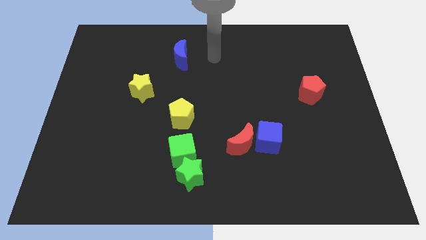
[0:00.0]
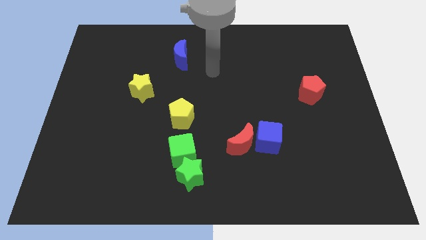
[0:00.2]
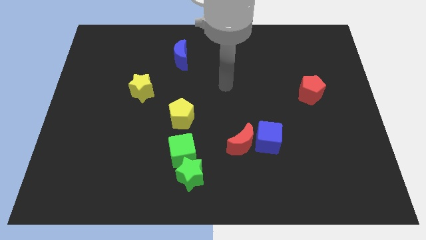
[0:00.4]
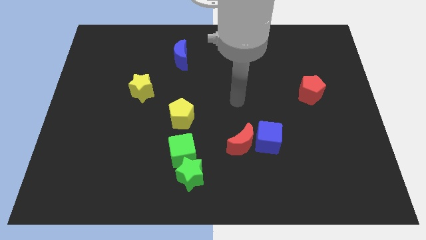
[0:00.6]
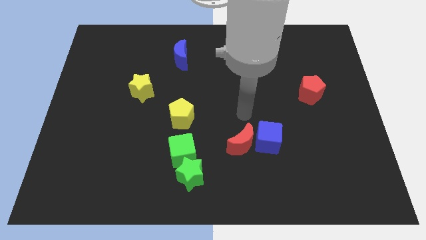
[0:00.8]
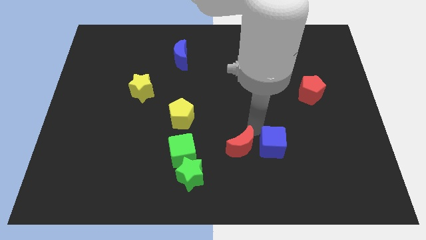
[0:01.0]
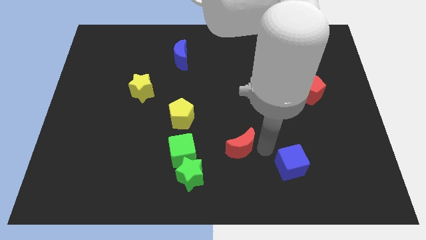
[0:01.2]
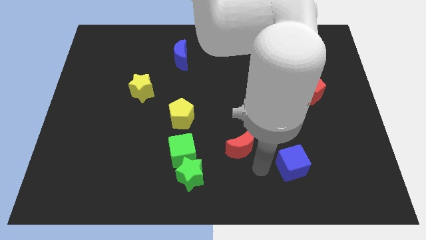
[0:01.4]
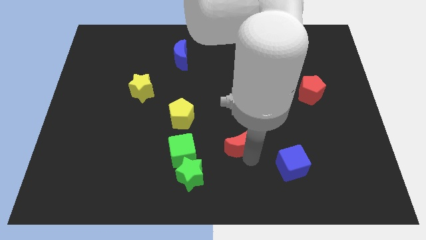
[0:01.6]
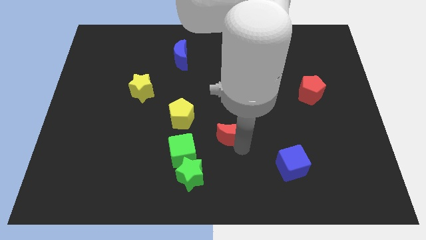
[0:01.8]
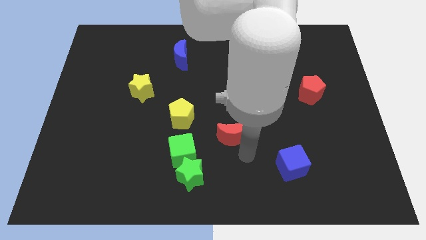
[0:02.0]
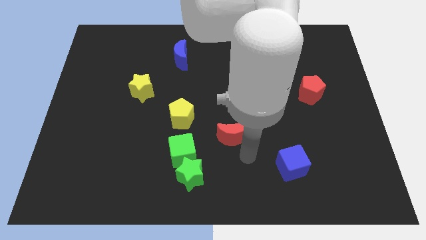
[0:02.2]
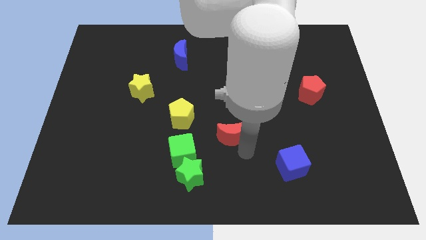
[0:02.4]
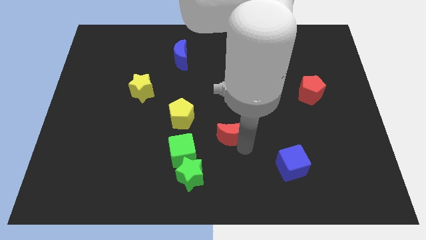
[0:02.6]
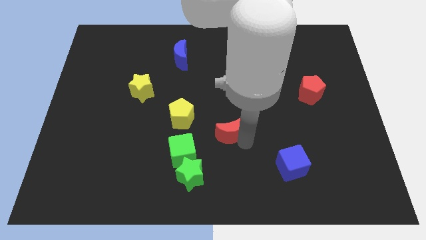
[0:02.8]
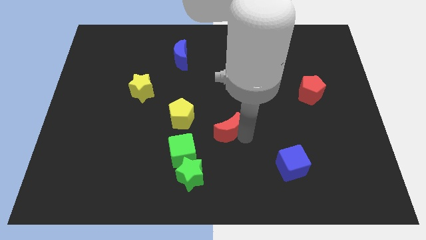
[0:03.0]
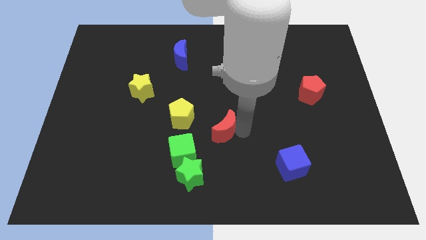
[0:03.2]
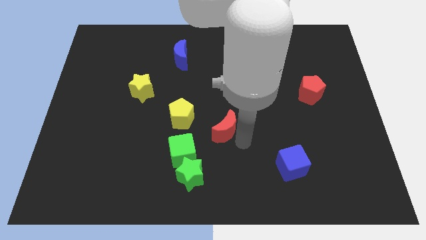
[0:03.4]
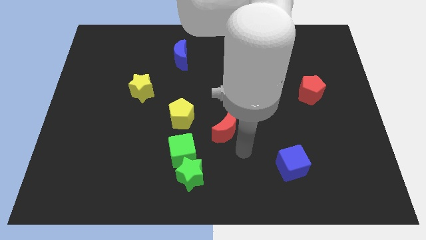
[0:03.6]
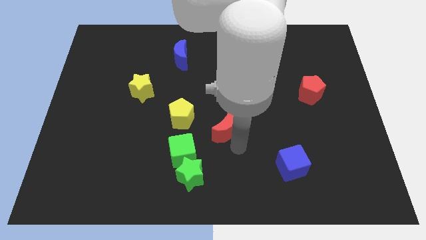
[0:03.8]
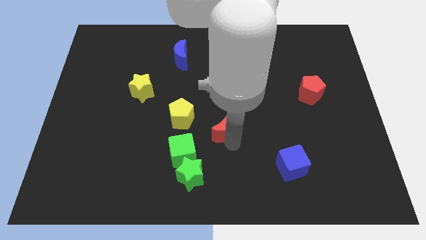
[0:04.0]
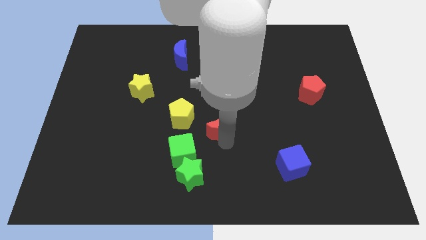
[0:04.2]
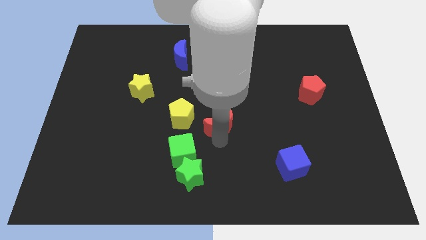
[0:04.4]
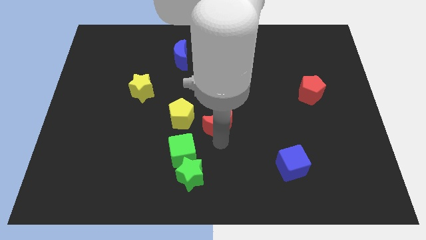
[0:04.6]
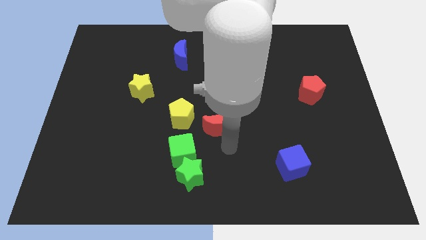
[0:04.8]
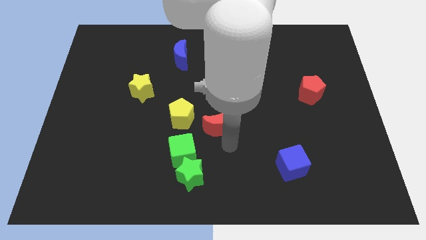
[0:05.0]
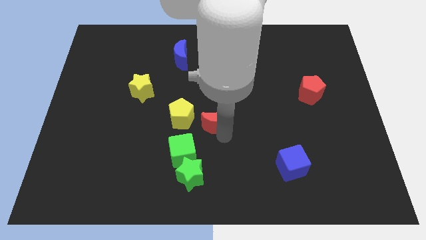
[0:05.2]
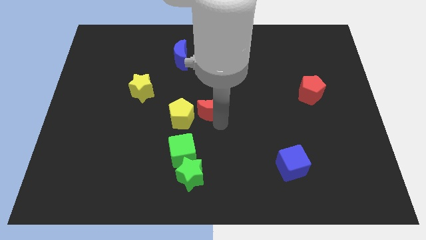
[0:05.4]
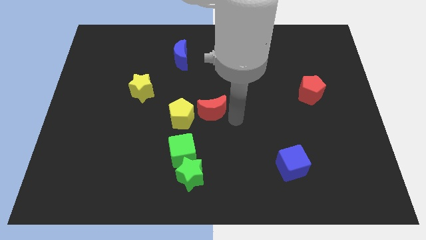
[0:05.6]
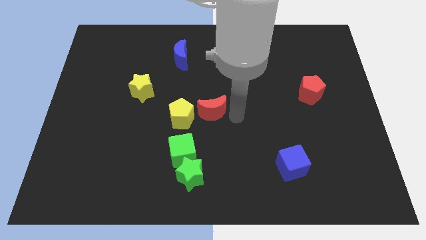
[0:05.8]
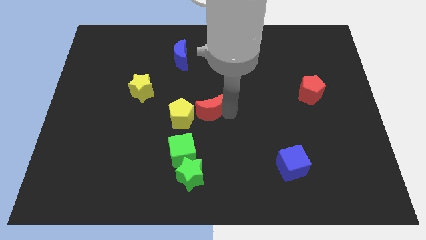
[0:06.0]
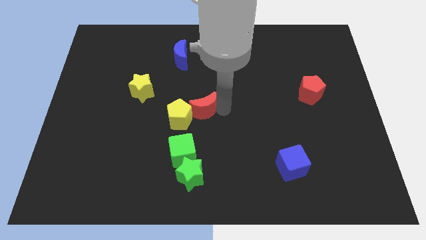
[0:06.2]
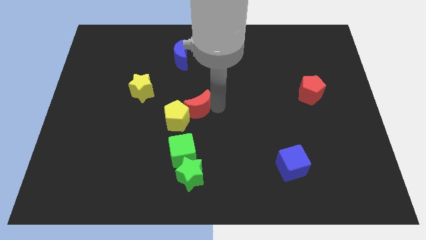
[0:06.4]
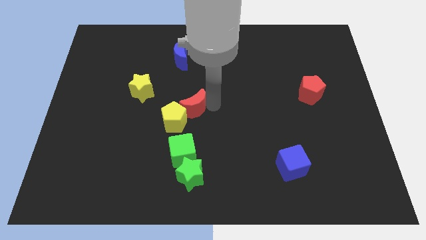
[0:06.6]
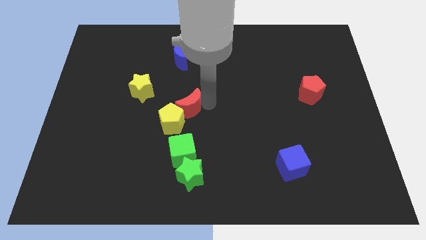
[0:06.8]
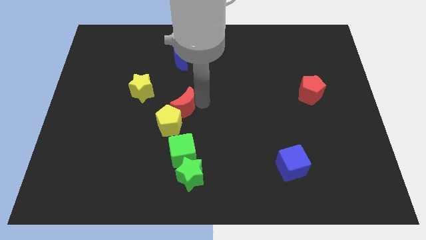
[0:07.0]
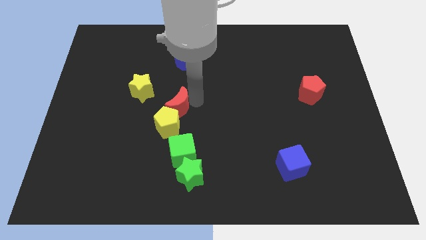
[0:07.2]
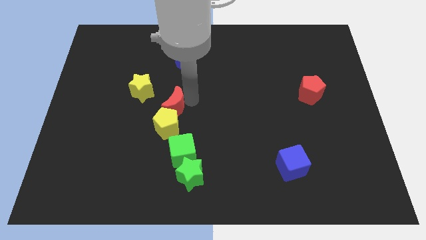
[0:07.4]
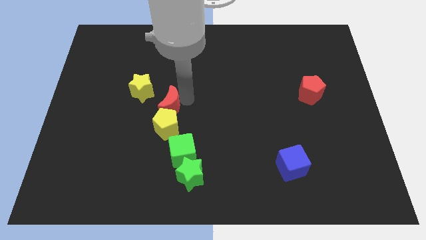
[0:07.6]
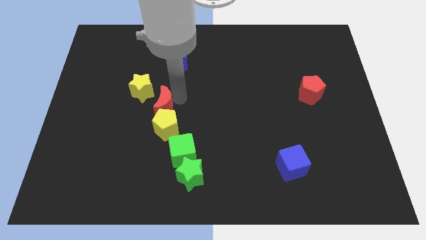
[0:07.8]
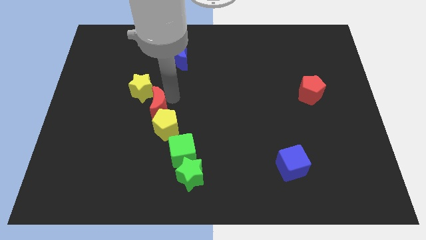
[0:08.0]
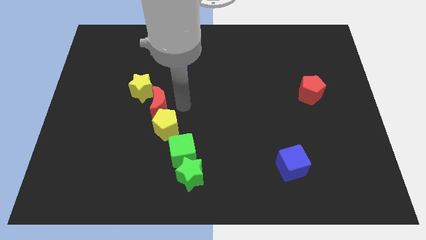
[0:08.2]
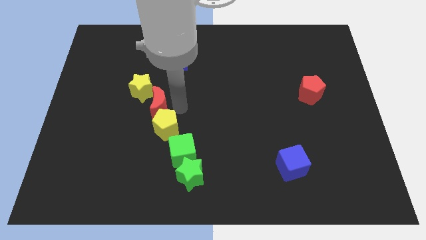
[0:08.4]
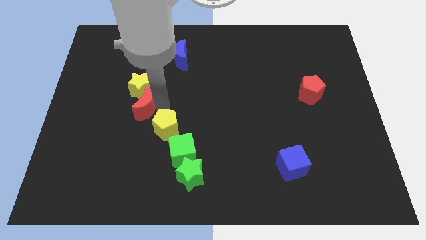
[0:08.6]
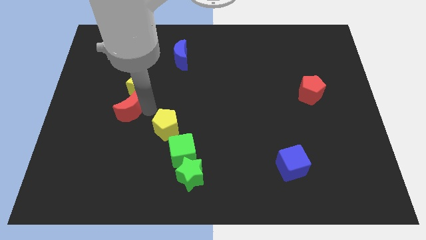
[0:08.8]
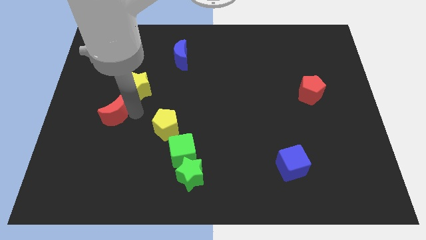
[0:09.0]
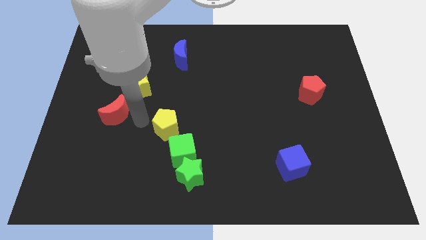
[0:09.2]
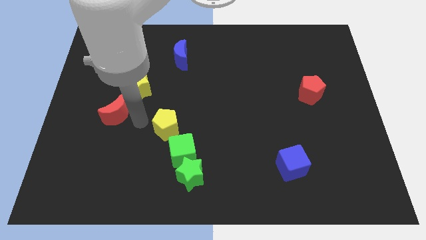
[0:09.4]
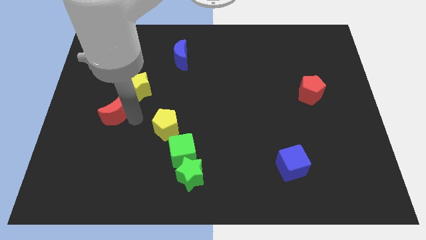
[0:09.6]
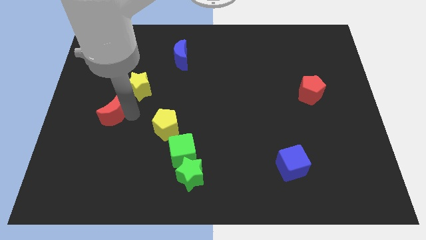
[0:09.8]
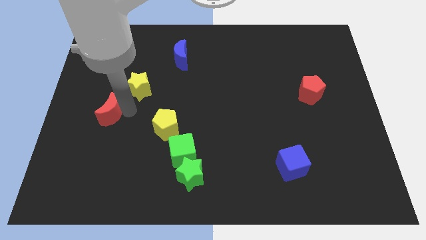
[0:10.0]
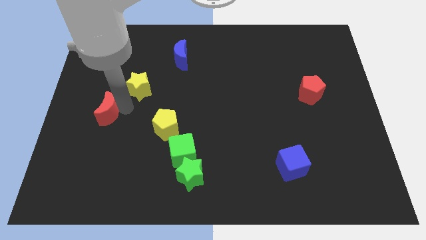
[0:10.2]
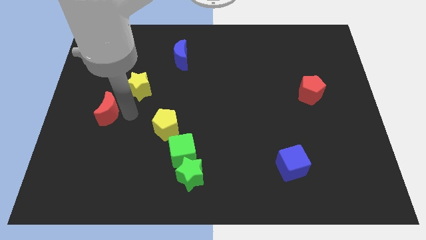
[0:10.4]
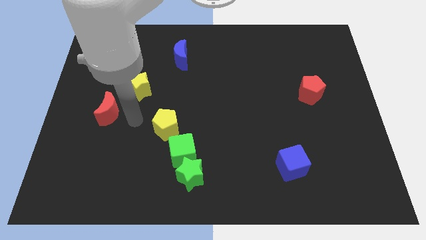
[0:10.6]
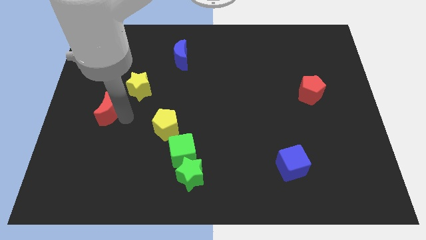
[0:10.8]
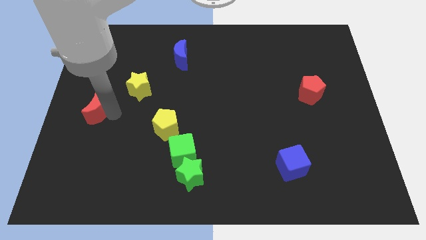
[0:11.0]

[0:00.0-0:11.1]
move the red moon to the left side
